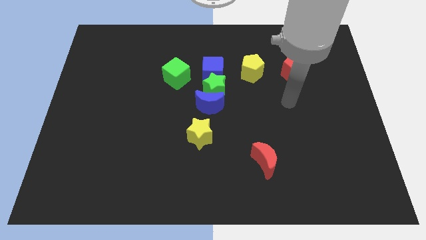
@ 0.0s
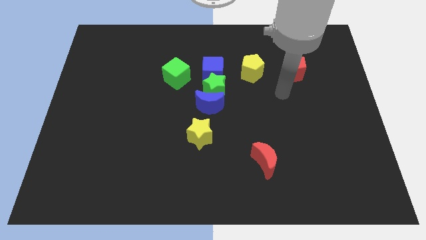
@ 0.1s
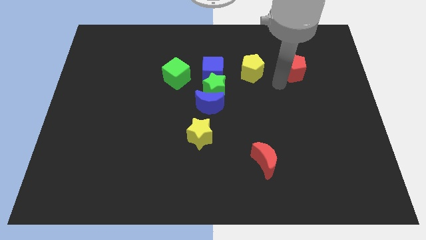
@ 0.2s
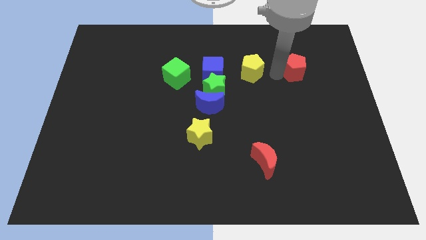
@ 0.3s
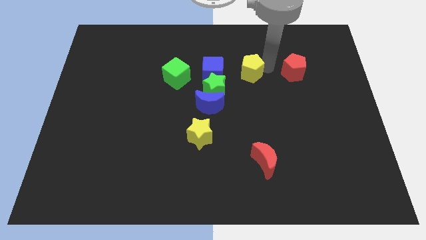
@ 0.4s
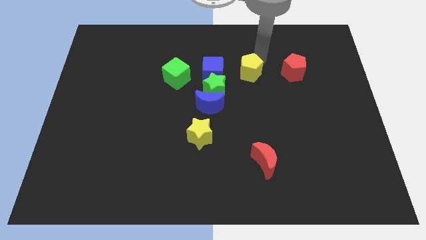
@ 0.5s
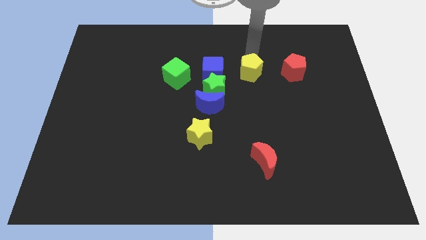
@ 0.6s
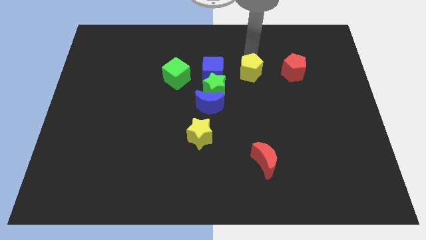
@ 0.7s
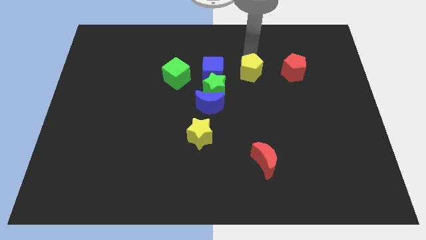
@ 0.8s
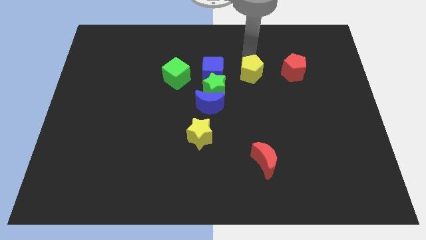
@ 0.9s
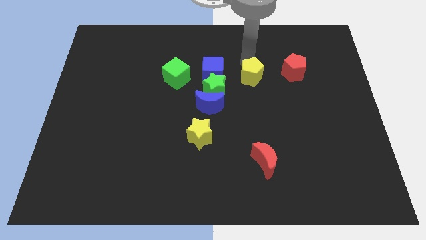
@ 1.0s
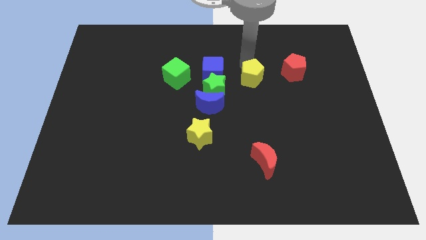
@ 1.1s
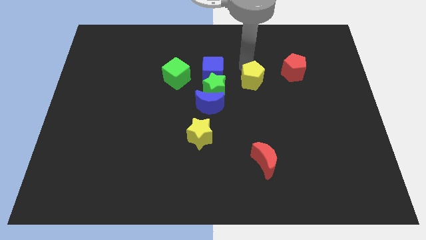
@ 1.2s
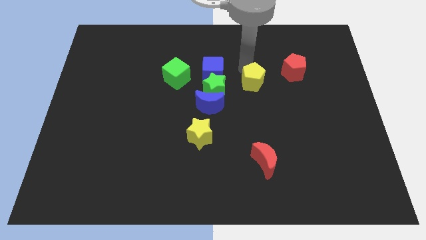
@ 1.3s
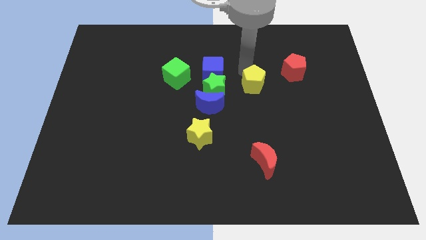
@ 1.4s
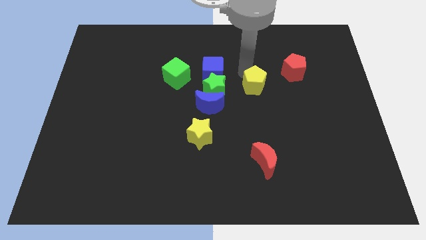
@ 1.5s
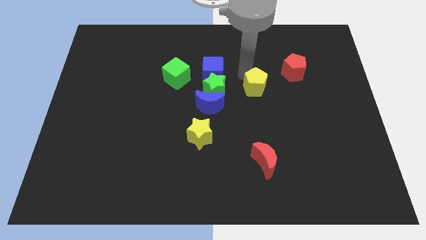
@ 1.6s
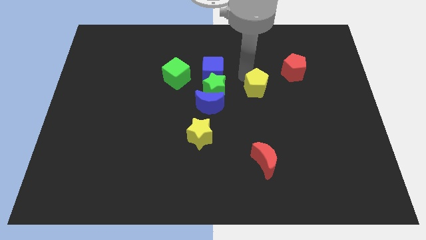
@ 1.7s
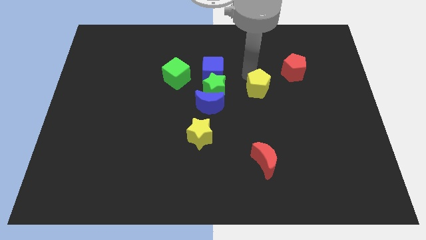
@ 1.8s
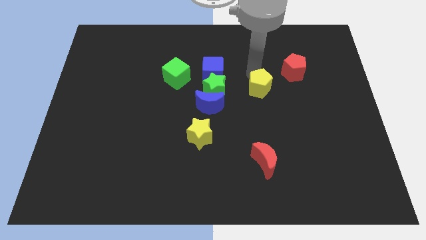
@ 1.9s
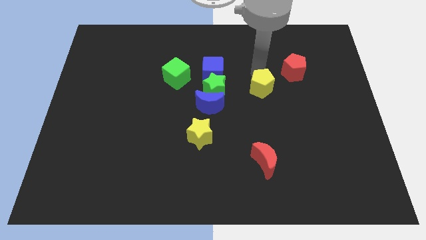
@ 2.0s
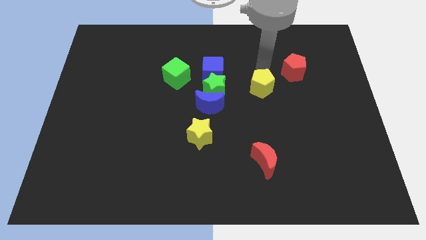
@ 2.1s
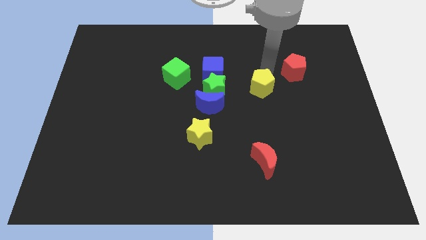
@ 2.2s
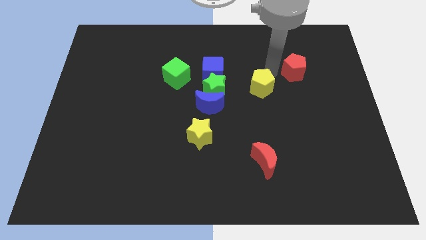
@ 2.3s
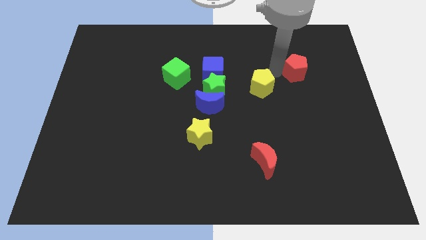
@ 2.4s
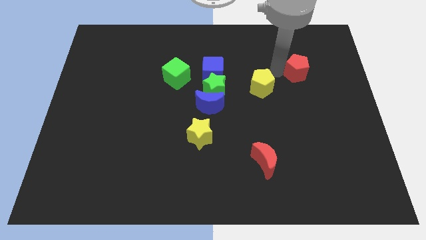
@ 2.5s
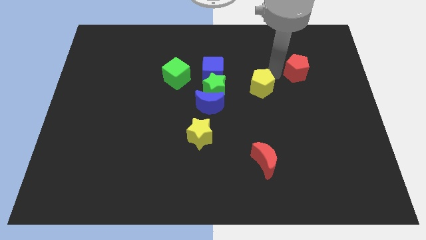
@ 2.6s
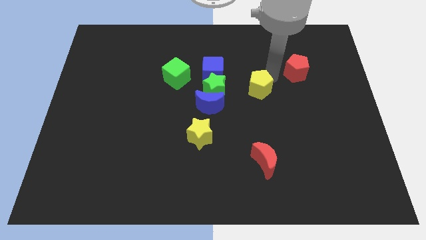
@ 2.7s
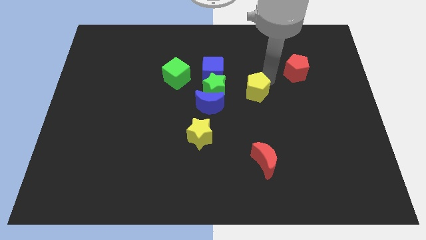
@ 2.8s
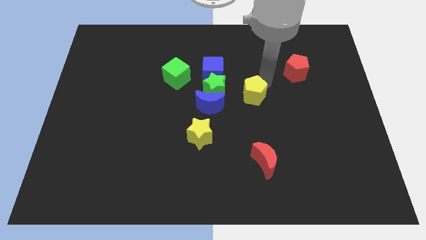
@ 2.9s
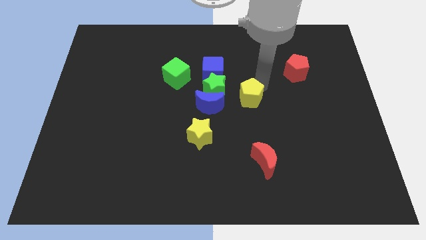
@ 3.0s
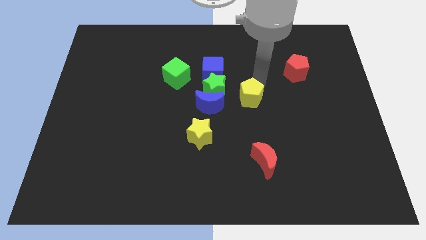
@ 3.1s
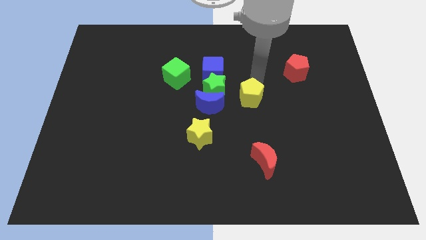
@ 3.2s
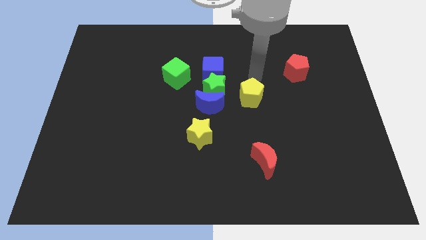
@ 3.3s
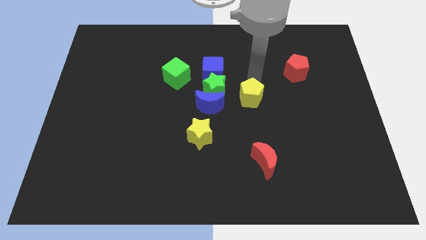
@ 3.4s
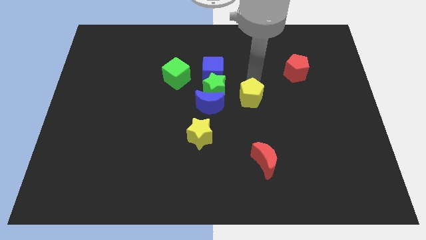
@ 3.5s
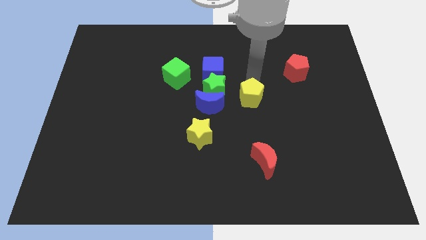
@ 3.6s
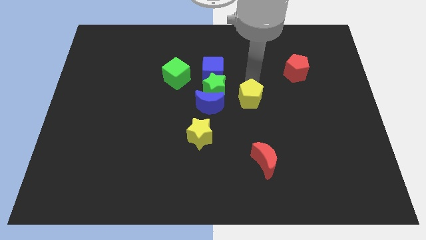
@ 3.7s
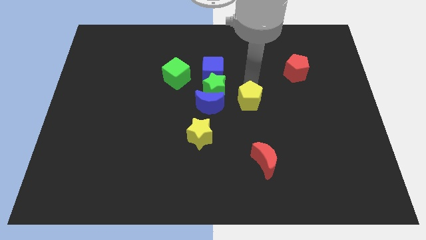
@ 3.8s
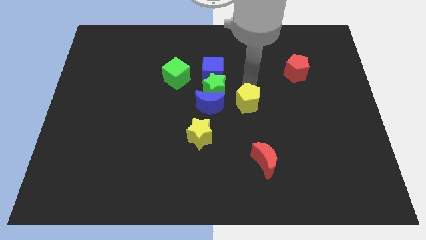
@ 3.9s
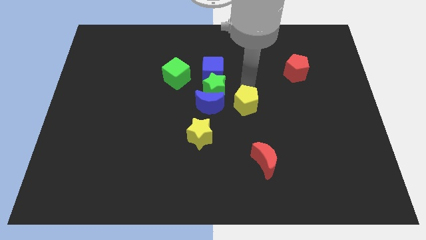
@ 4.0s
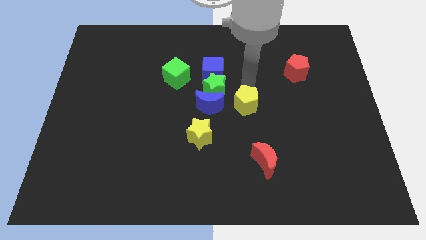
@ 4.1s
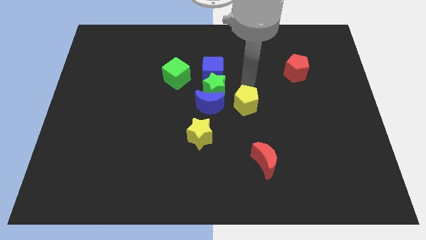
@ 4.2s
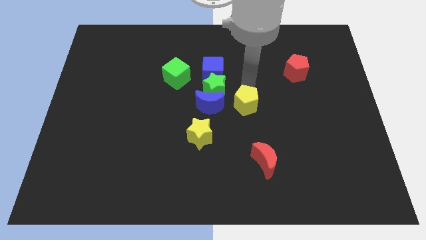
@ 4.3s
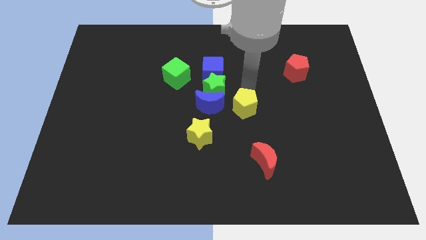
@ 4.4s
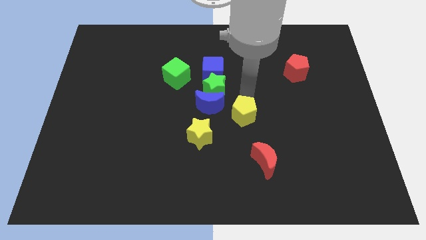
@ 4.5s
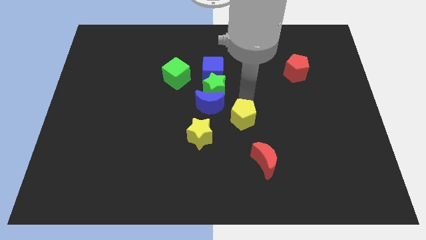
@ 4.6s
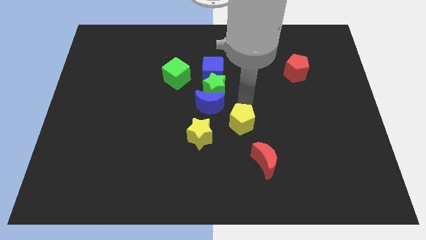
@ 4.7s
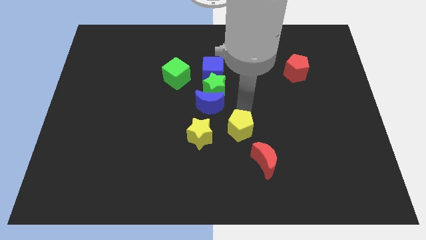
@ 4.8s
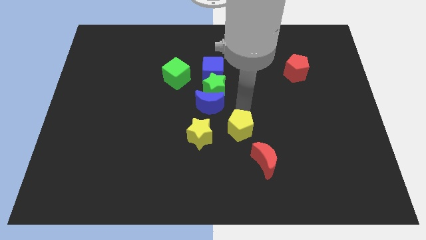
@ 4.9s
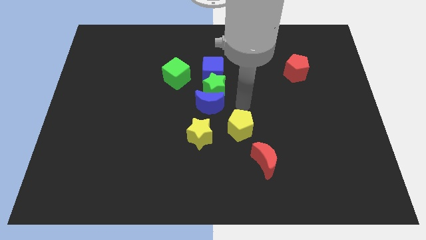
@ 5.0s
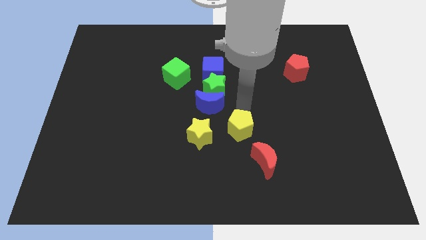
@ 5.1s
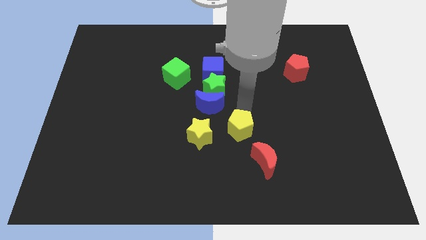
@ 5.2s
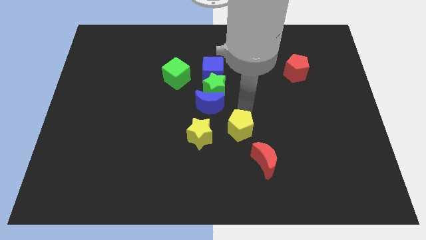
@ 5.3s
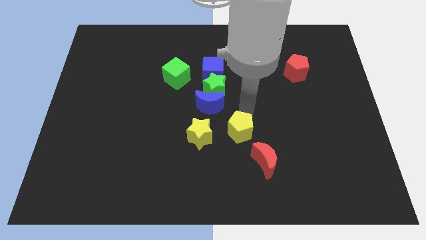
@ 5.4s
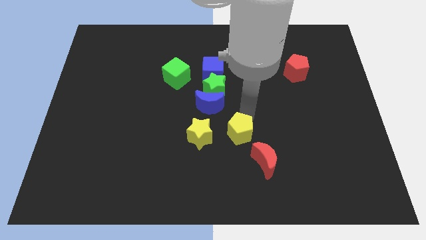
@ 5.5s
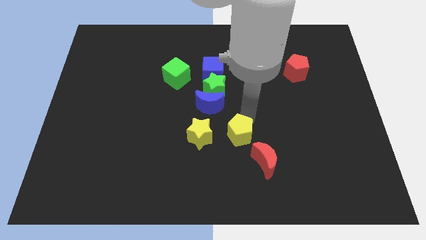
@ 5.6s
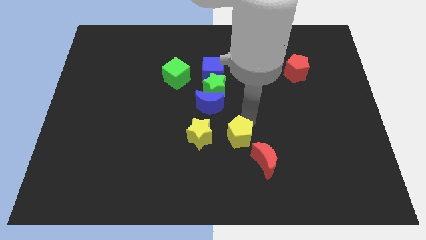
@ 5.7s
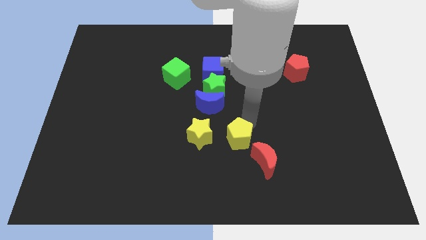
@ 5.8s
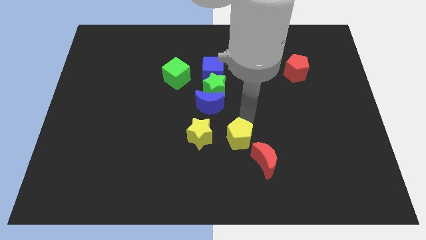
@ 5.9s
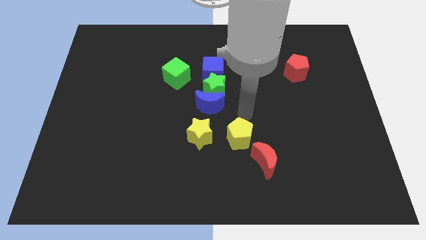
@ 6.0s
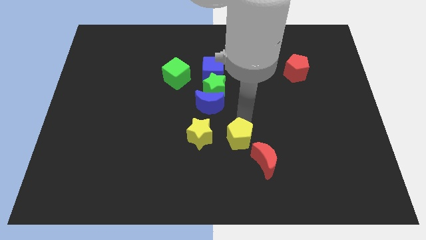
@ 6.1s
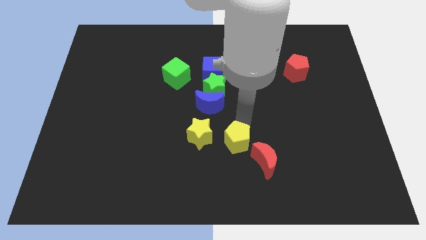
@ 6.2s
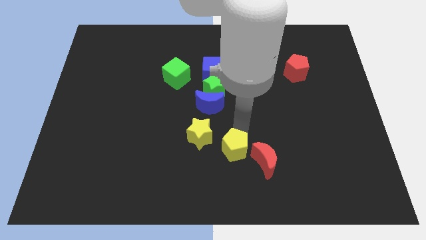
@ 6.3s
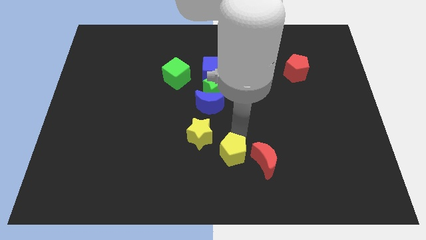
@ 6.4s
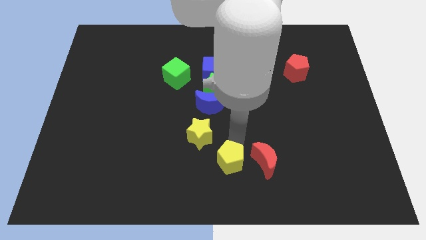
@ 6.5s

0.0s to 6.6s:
move the yellow pentagon to the bottom
